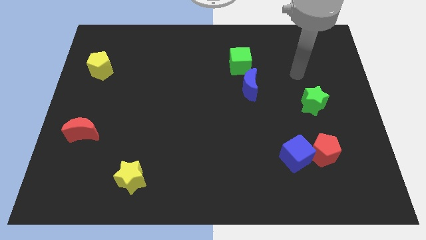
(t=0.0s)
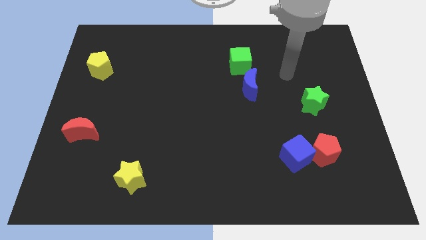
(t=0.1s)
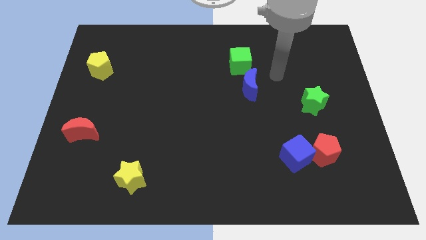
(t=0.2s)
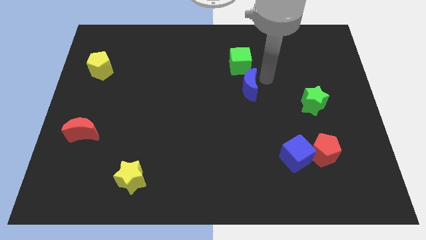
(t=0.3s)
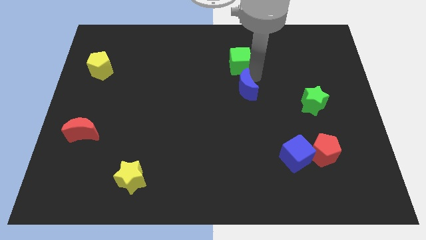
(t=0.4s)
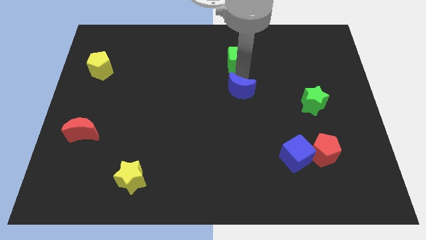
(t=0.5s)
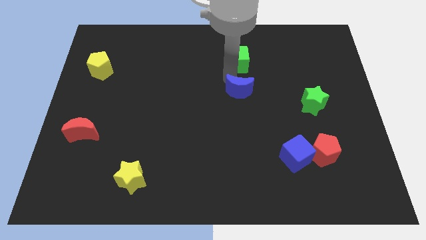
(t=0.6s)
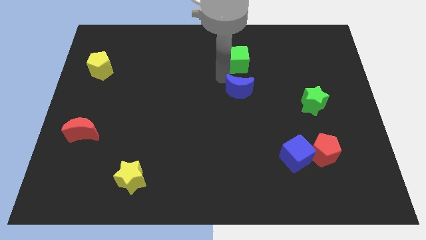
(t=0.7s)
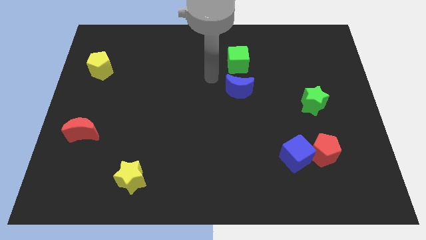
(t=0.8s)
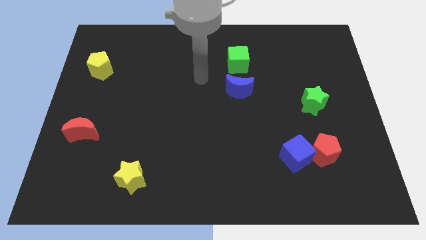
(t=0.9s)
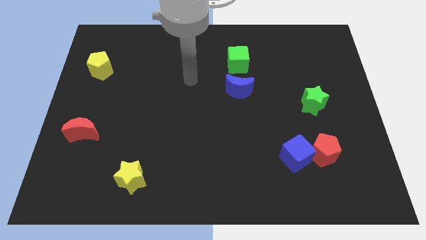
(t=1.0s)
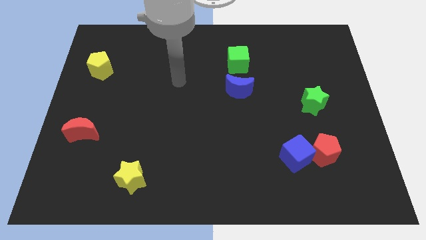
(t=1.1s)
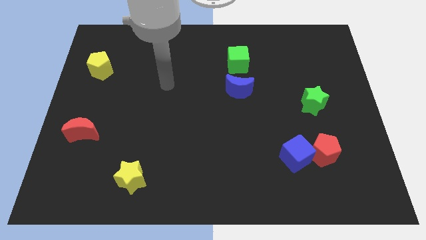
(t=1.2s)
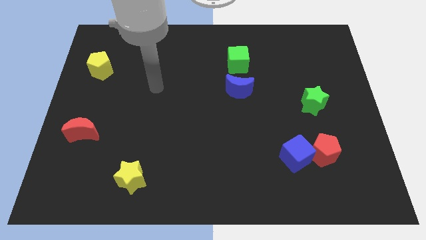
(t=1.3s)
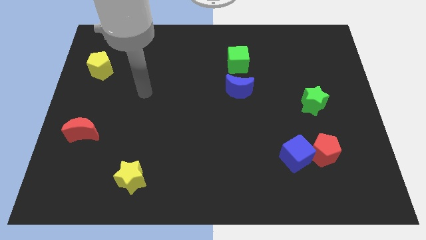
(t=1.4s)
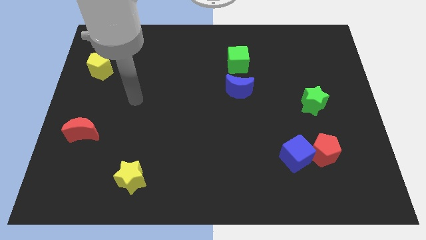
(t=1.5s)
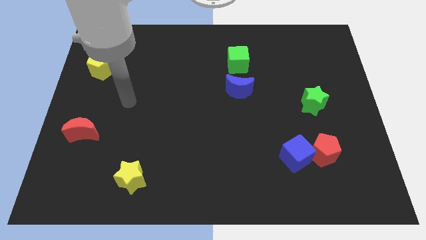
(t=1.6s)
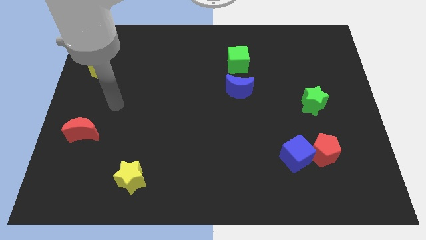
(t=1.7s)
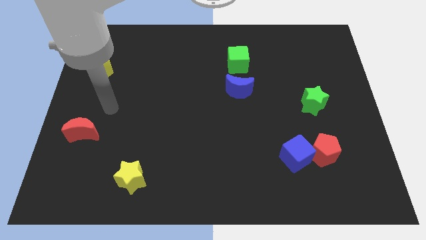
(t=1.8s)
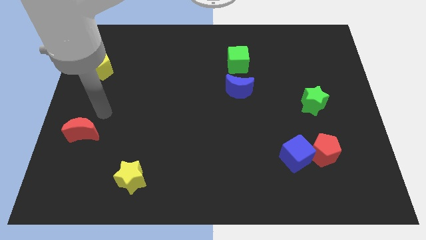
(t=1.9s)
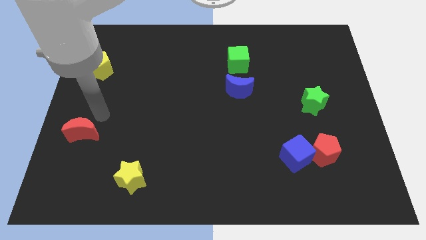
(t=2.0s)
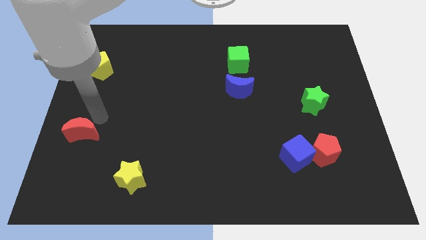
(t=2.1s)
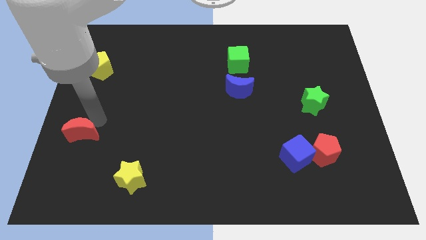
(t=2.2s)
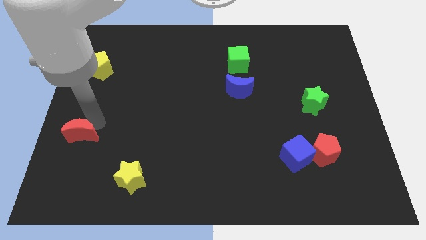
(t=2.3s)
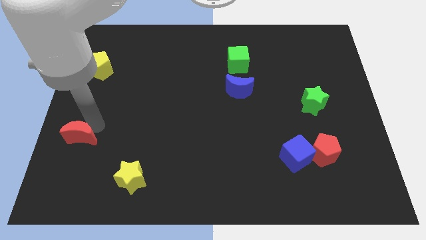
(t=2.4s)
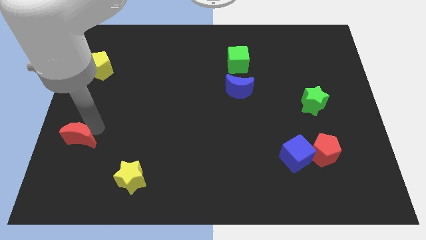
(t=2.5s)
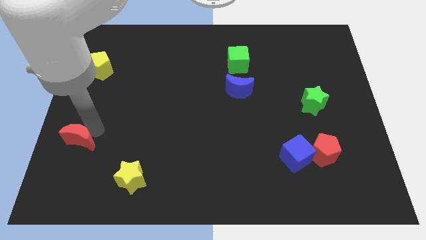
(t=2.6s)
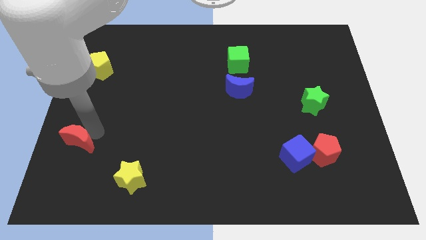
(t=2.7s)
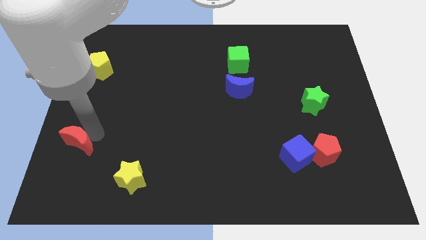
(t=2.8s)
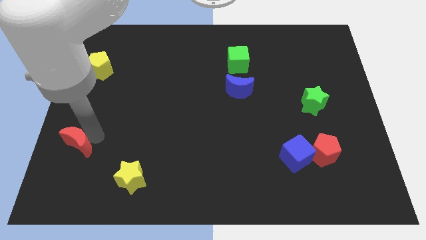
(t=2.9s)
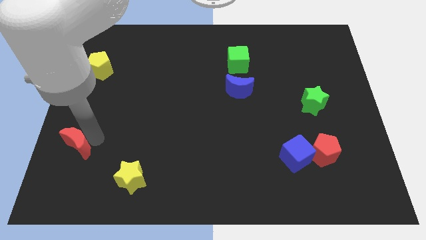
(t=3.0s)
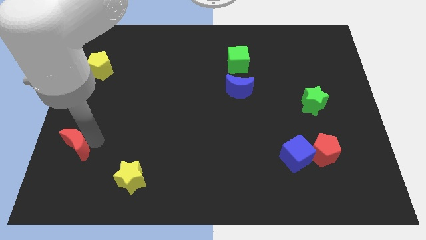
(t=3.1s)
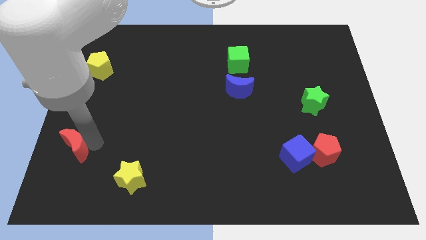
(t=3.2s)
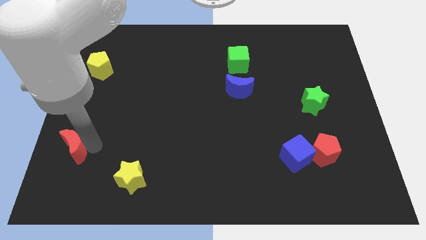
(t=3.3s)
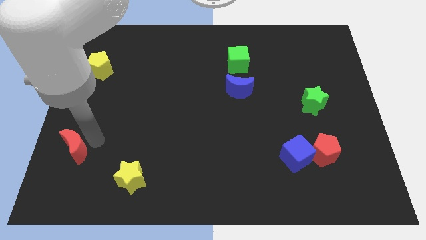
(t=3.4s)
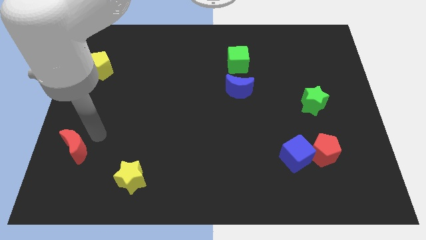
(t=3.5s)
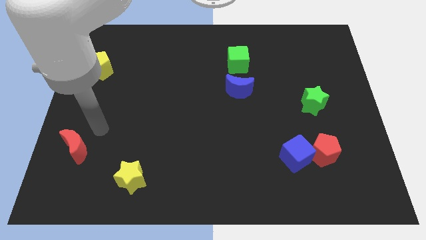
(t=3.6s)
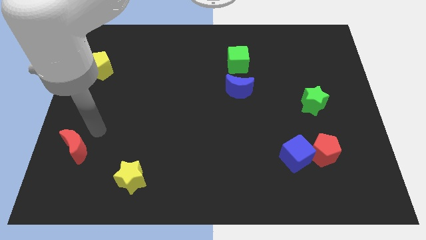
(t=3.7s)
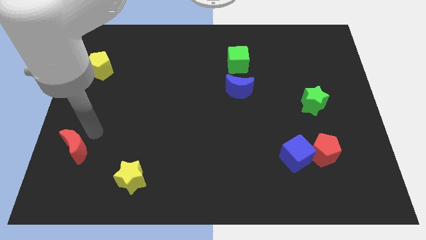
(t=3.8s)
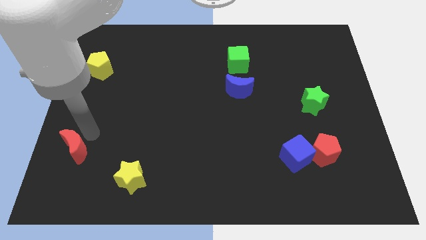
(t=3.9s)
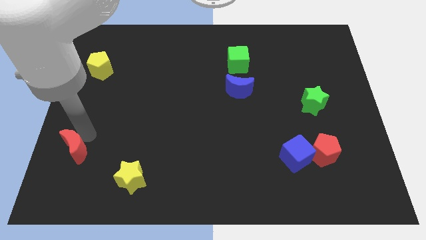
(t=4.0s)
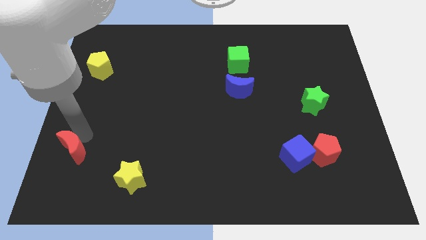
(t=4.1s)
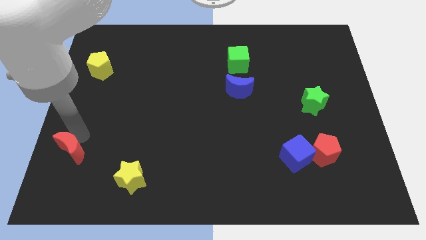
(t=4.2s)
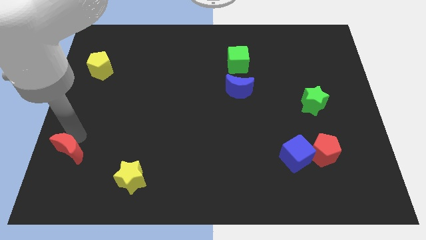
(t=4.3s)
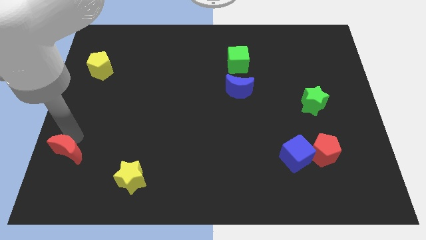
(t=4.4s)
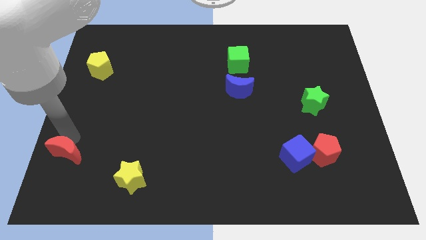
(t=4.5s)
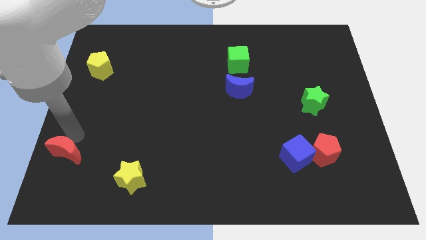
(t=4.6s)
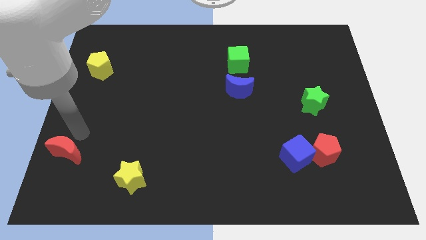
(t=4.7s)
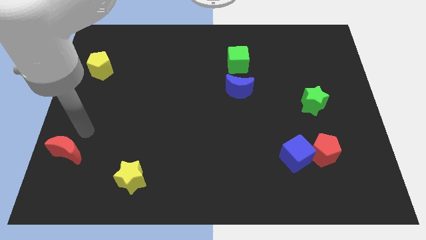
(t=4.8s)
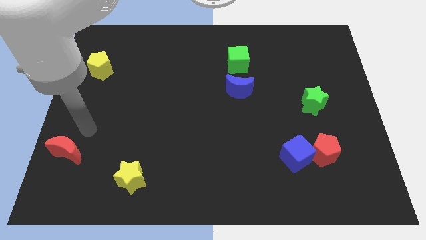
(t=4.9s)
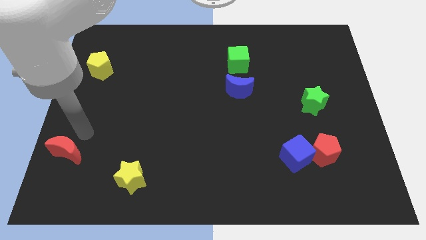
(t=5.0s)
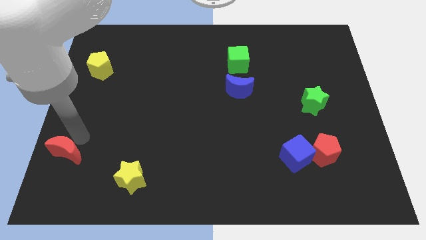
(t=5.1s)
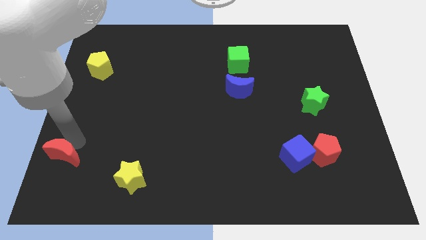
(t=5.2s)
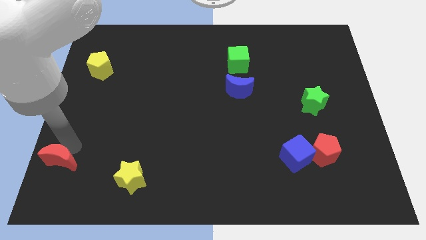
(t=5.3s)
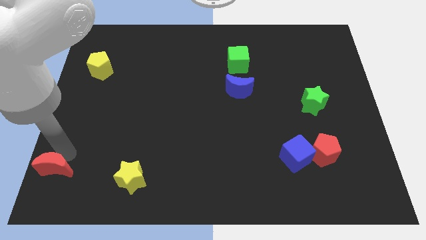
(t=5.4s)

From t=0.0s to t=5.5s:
push the red moon to the lower left corner
